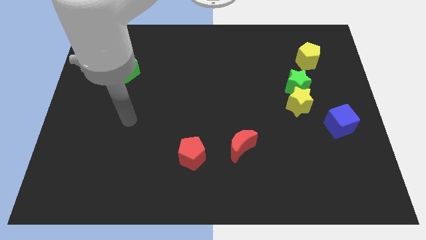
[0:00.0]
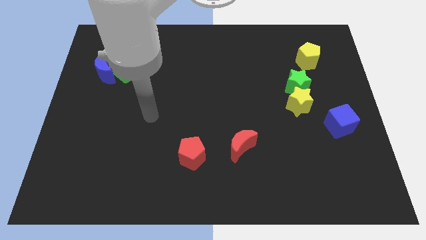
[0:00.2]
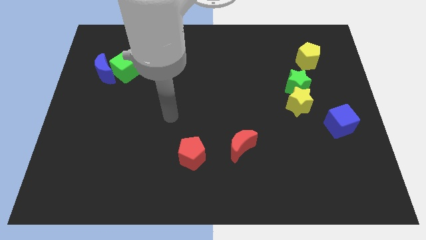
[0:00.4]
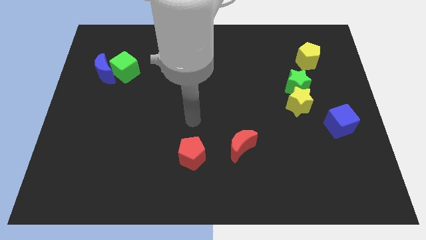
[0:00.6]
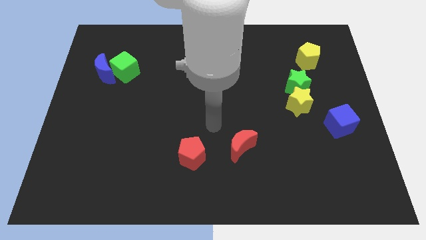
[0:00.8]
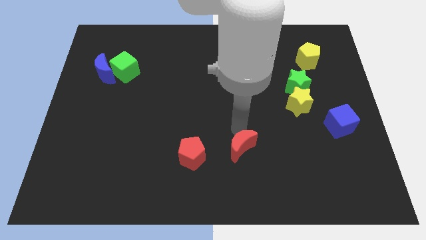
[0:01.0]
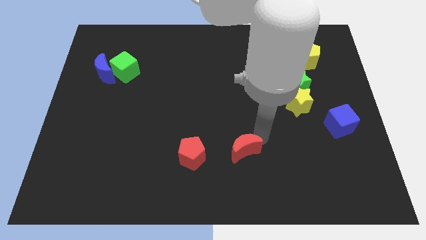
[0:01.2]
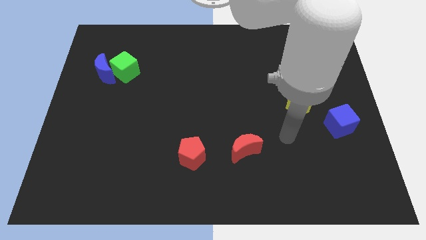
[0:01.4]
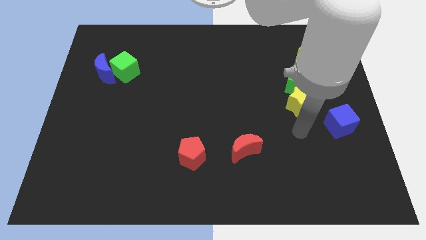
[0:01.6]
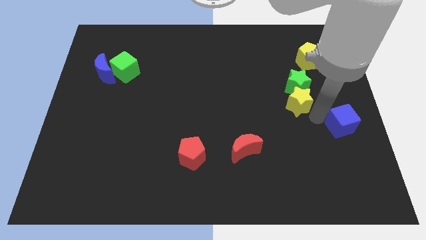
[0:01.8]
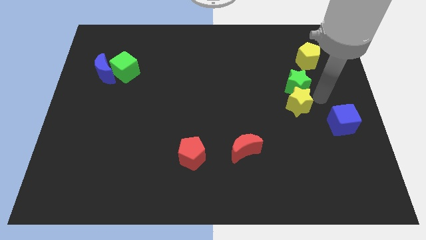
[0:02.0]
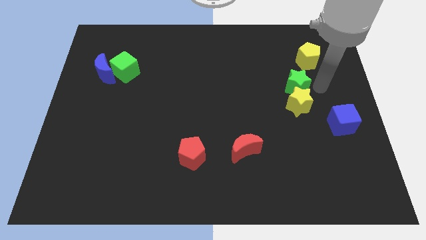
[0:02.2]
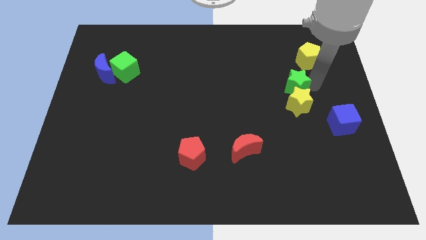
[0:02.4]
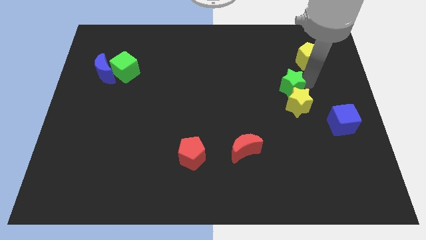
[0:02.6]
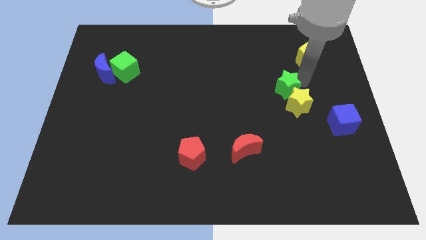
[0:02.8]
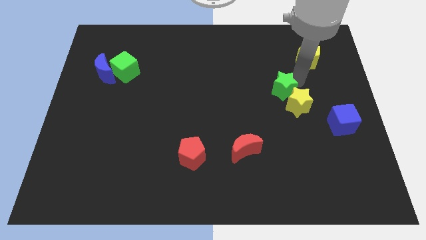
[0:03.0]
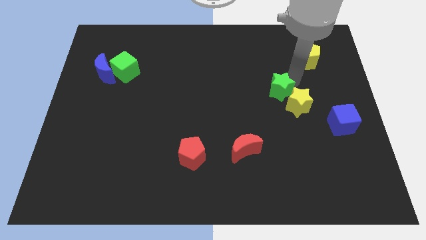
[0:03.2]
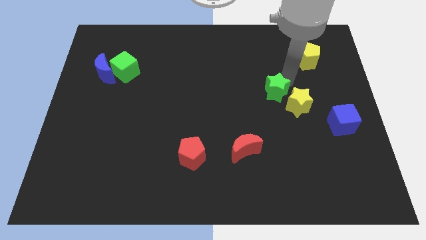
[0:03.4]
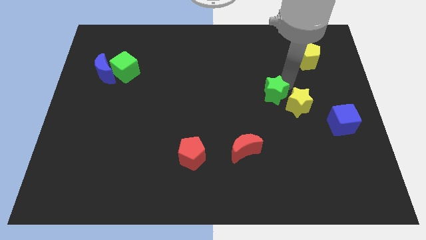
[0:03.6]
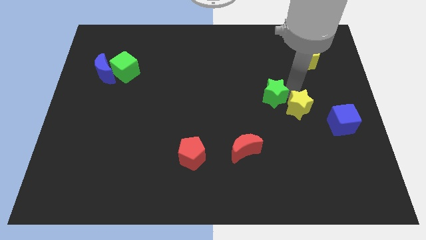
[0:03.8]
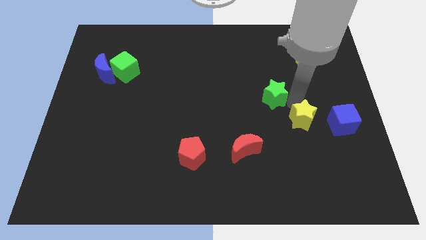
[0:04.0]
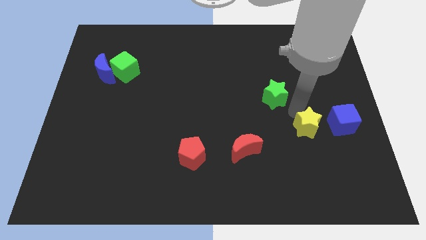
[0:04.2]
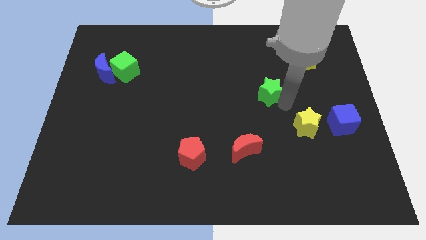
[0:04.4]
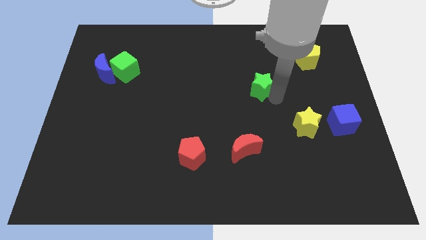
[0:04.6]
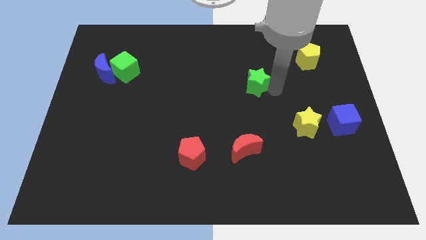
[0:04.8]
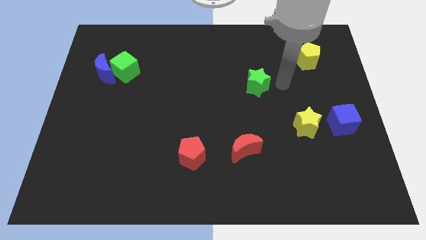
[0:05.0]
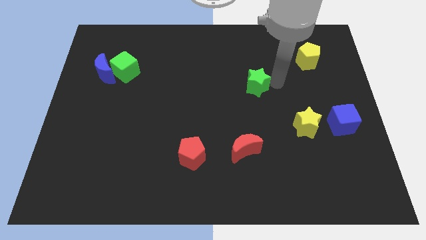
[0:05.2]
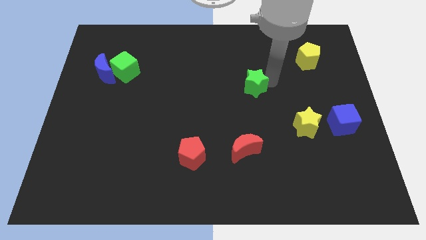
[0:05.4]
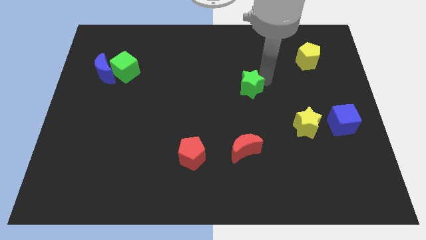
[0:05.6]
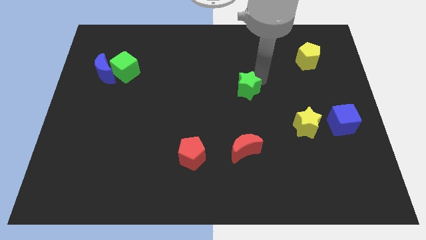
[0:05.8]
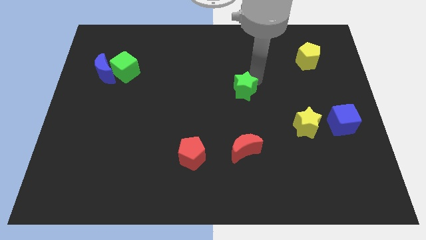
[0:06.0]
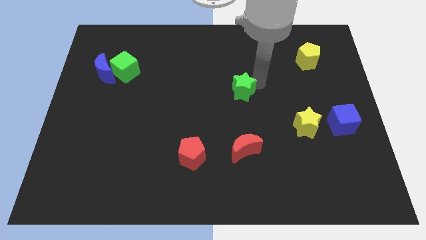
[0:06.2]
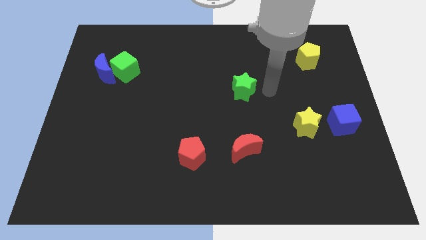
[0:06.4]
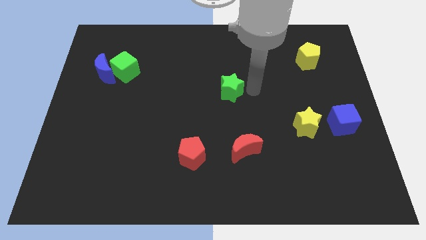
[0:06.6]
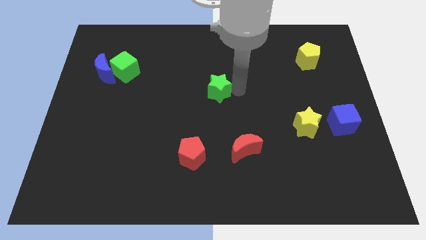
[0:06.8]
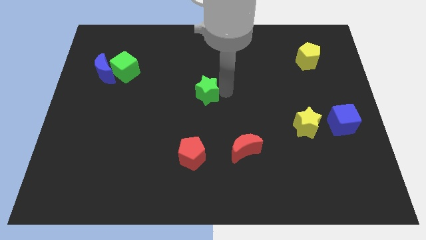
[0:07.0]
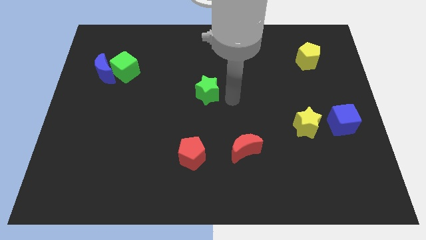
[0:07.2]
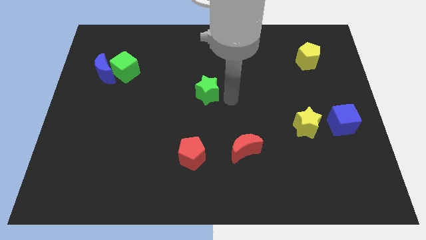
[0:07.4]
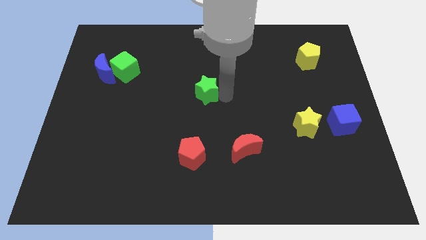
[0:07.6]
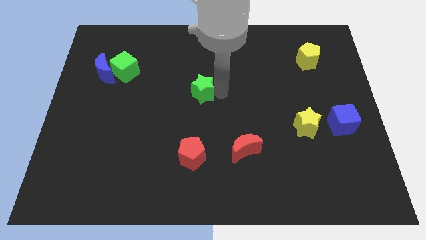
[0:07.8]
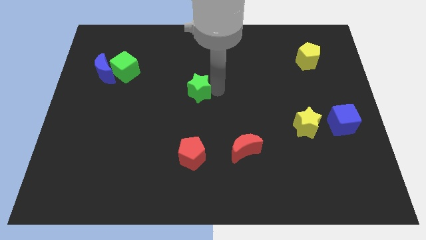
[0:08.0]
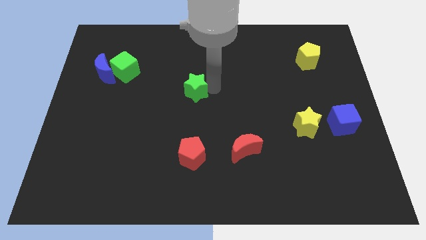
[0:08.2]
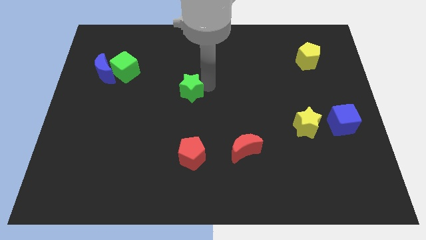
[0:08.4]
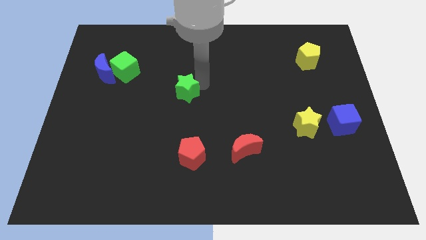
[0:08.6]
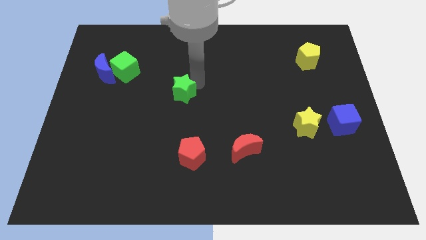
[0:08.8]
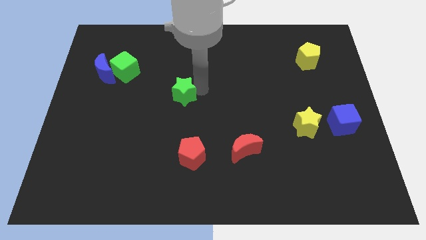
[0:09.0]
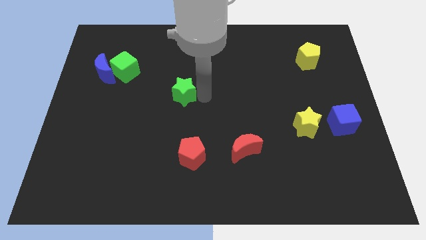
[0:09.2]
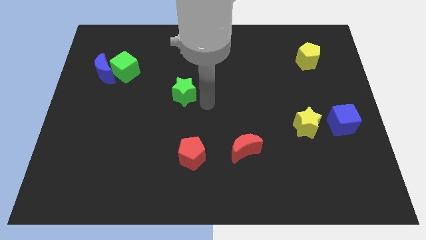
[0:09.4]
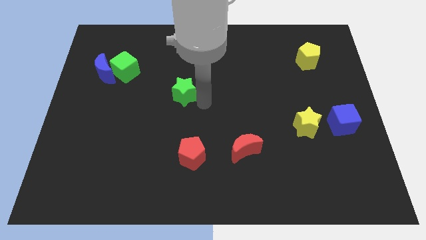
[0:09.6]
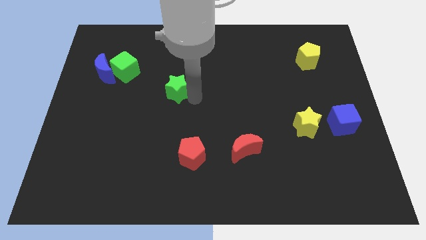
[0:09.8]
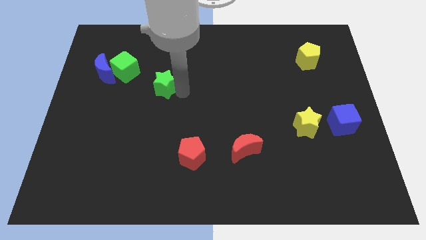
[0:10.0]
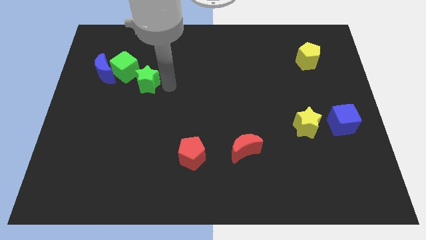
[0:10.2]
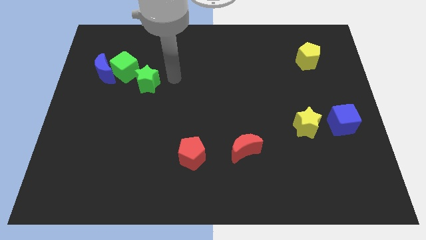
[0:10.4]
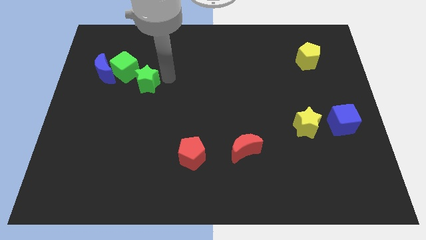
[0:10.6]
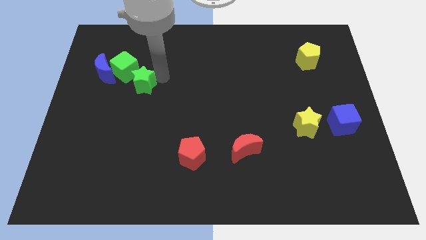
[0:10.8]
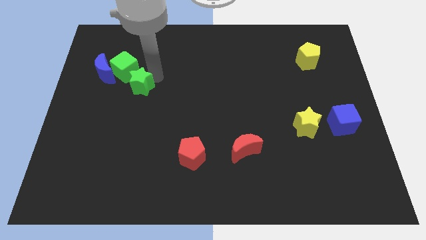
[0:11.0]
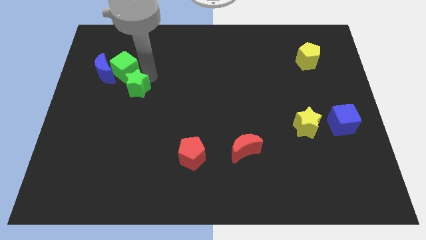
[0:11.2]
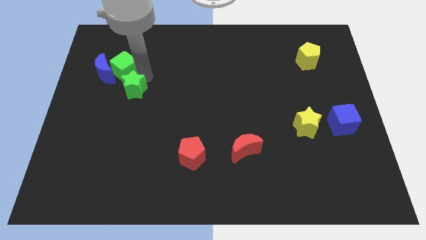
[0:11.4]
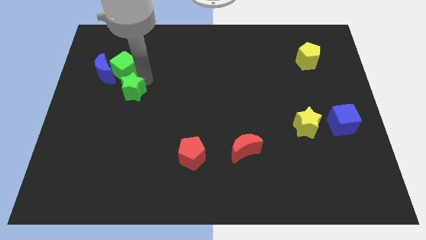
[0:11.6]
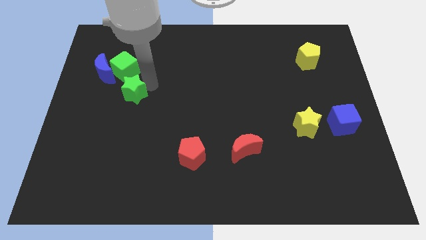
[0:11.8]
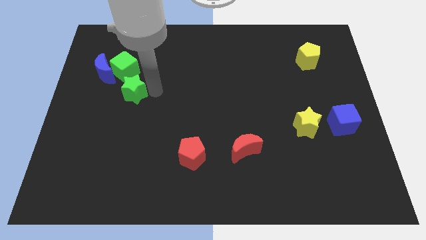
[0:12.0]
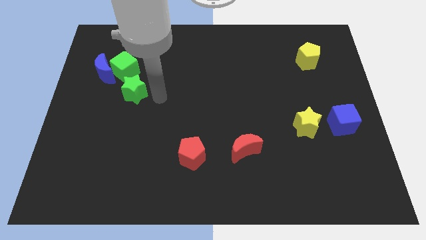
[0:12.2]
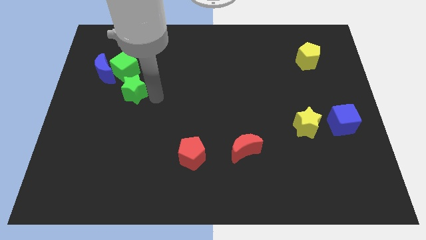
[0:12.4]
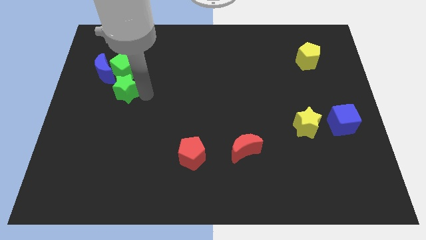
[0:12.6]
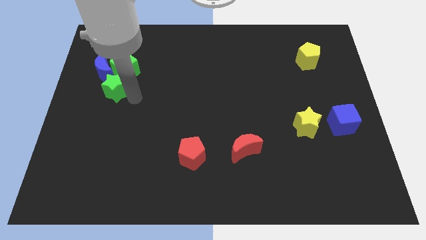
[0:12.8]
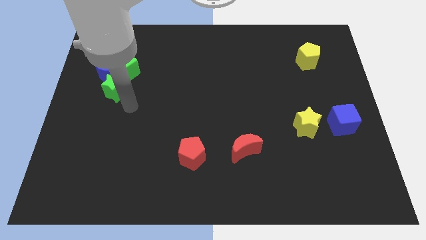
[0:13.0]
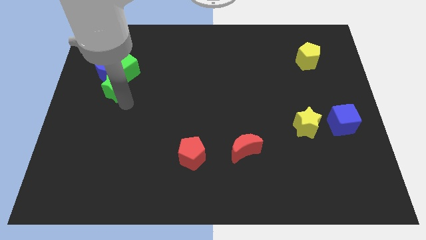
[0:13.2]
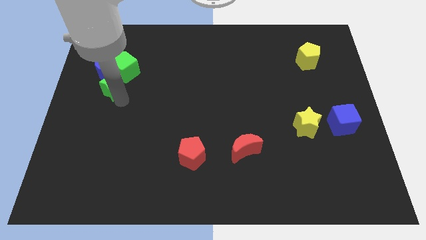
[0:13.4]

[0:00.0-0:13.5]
put the green star close to the blue moon
